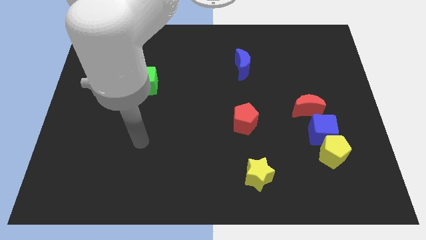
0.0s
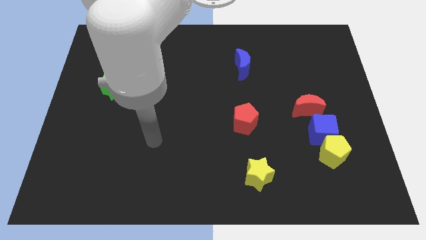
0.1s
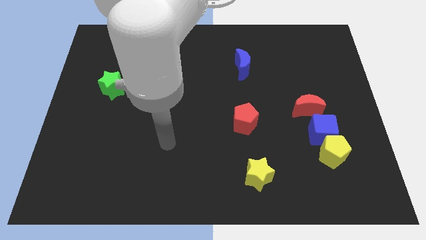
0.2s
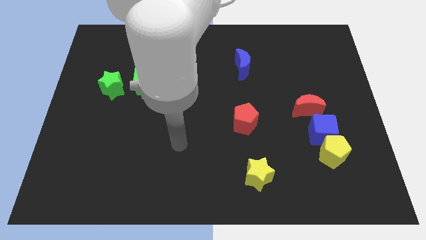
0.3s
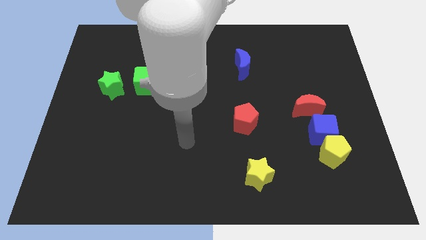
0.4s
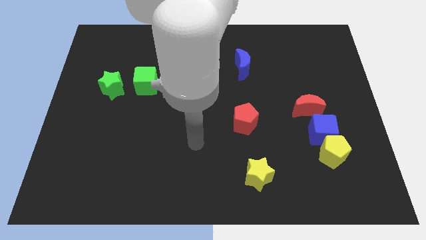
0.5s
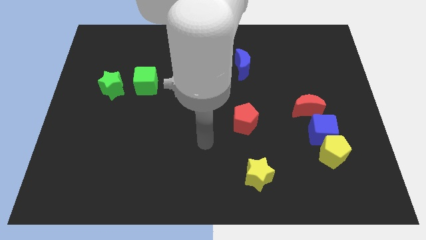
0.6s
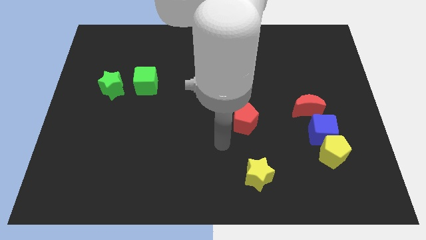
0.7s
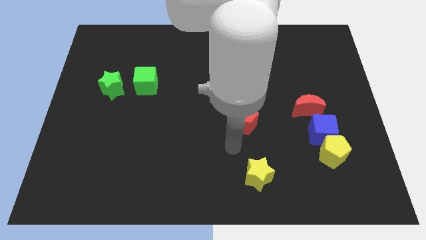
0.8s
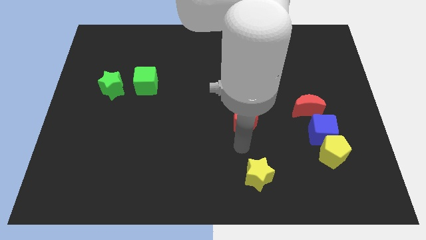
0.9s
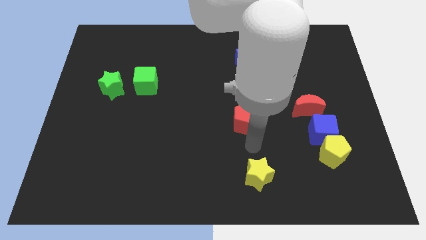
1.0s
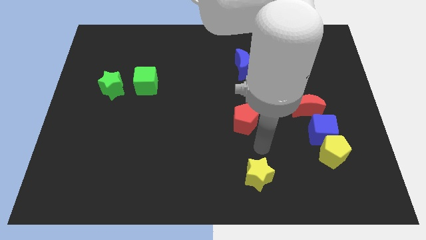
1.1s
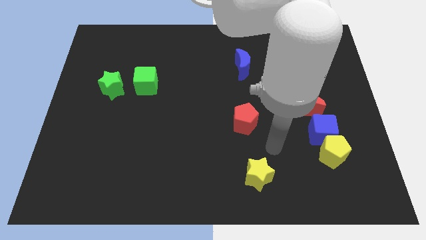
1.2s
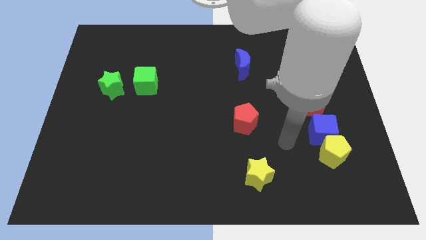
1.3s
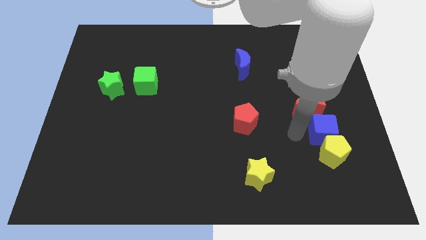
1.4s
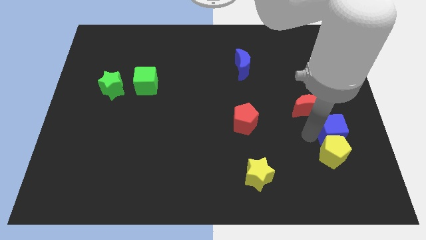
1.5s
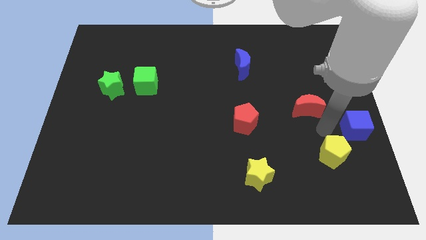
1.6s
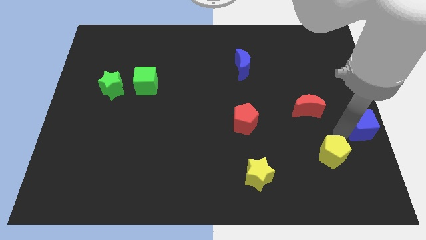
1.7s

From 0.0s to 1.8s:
pull the yellow pentagon apart from the blue cube

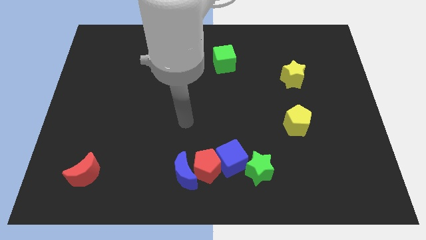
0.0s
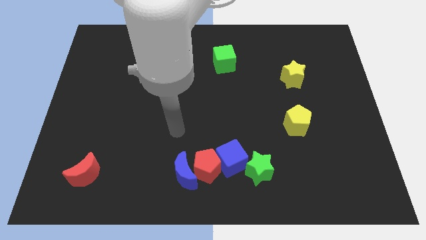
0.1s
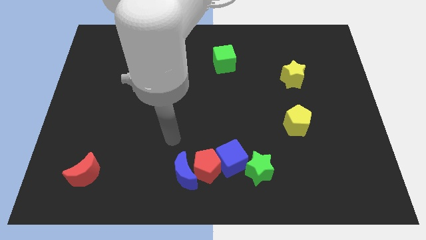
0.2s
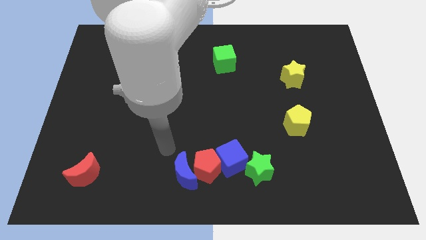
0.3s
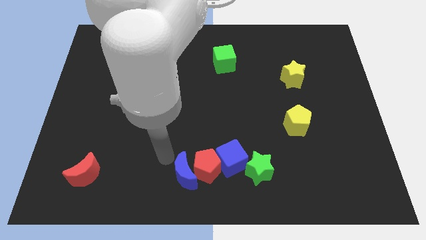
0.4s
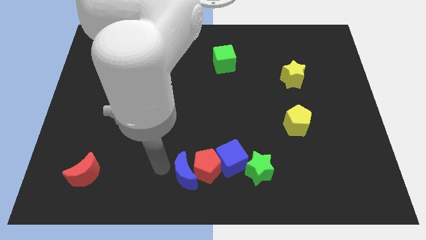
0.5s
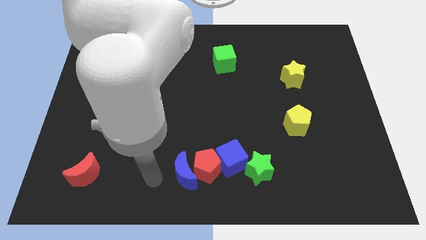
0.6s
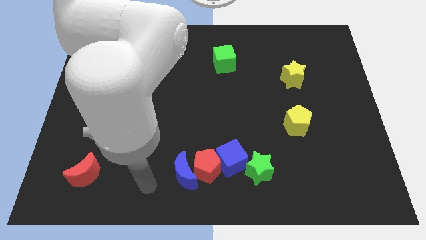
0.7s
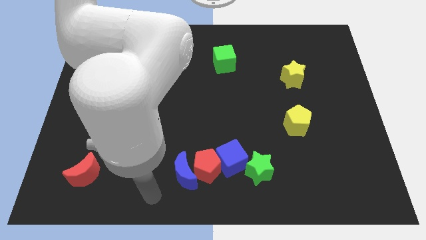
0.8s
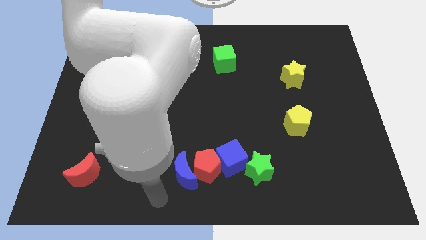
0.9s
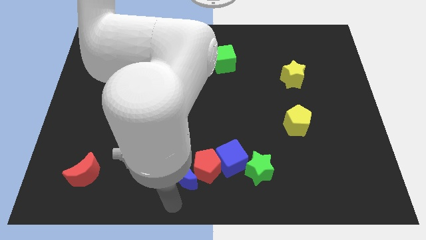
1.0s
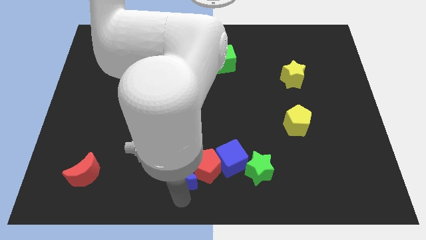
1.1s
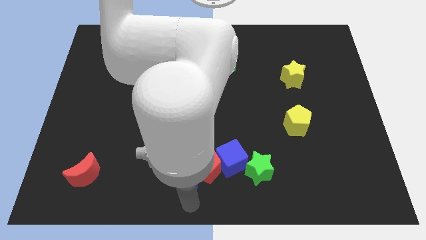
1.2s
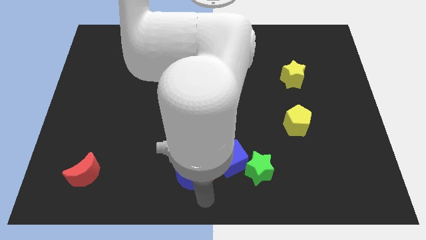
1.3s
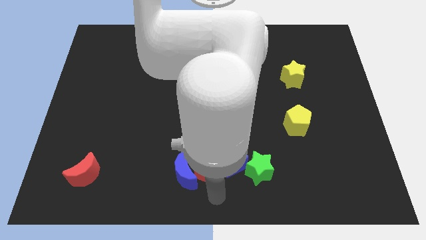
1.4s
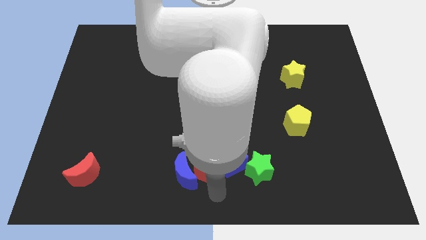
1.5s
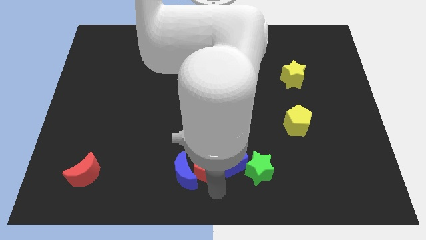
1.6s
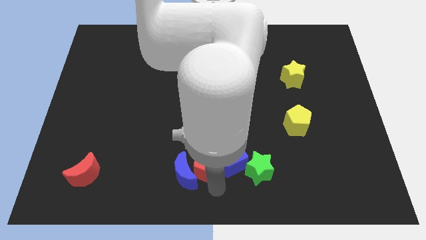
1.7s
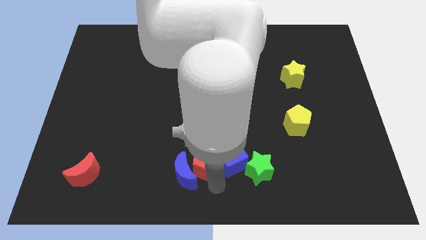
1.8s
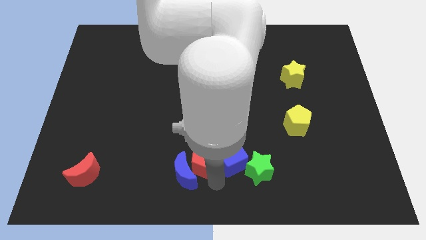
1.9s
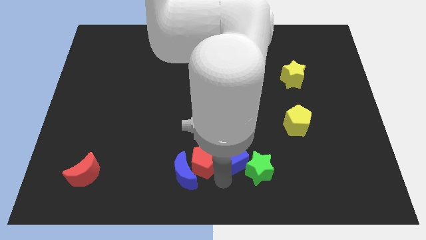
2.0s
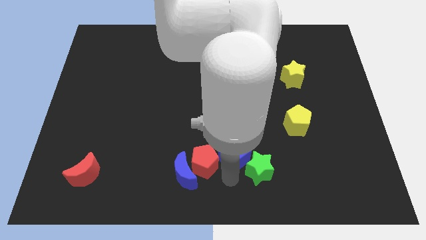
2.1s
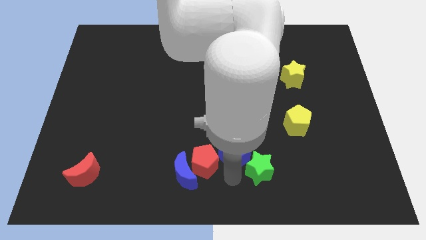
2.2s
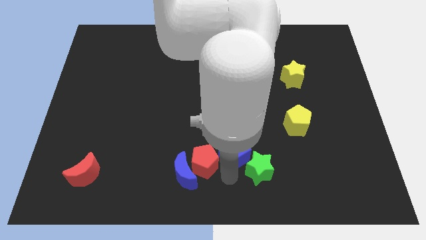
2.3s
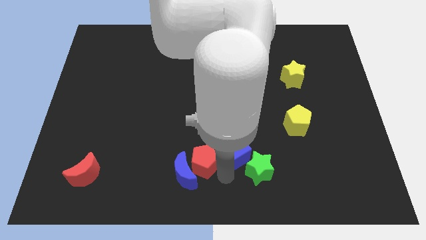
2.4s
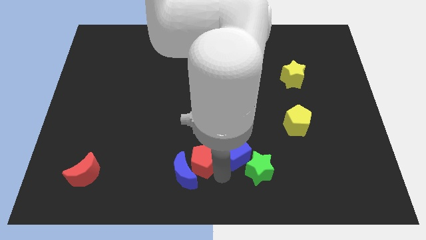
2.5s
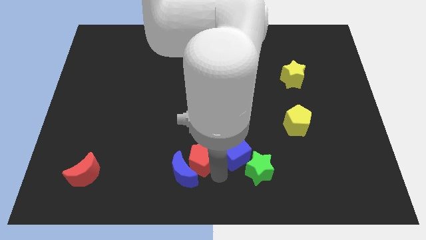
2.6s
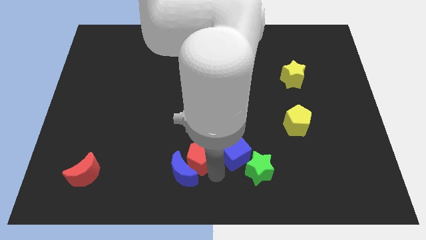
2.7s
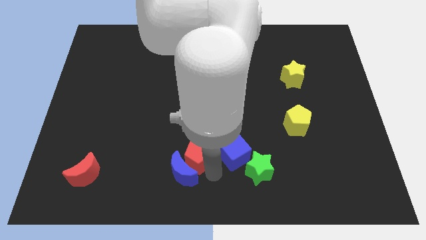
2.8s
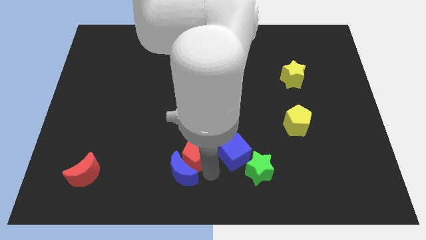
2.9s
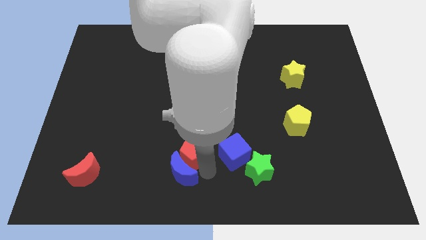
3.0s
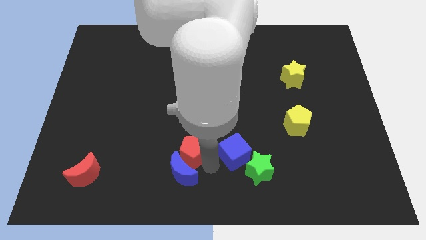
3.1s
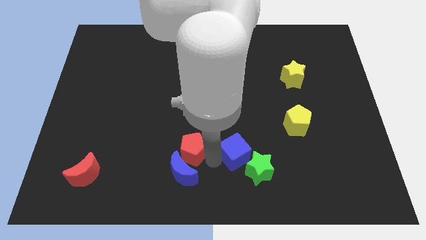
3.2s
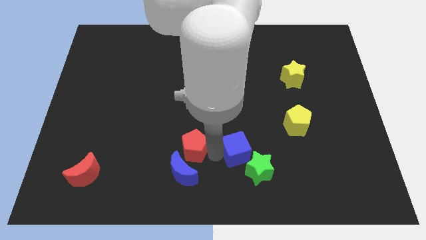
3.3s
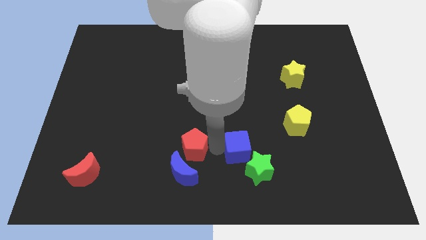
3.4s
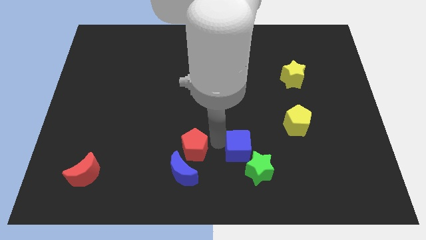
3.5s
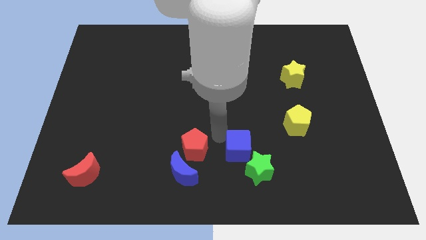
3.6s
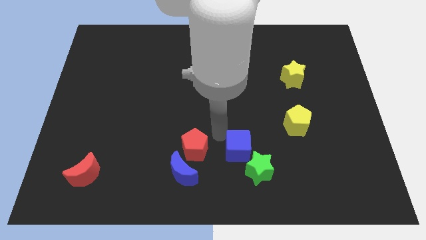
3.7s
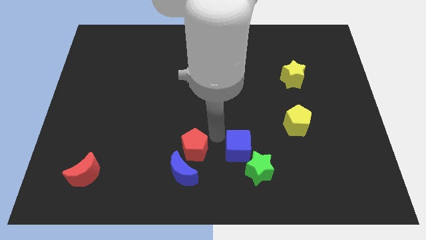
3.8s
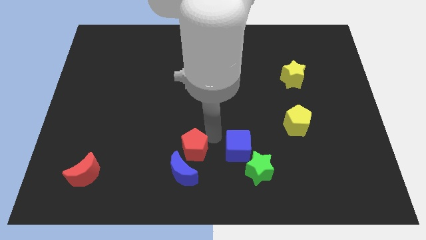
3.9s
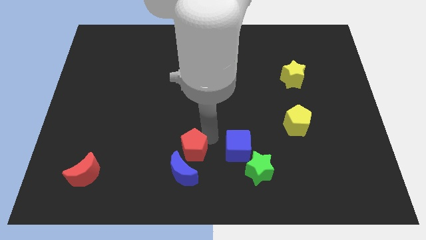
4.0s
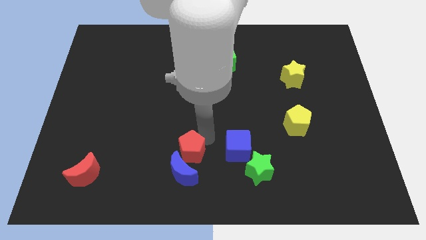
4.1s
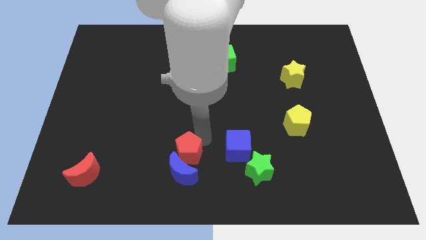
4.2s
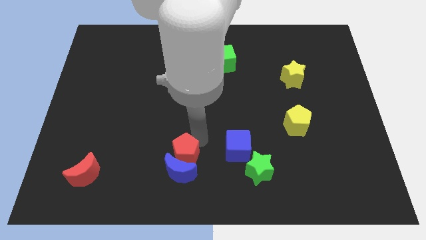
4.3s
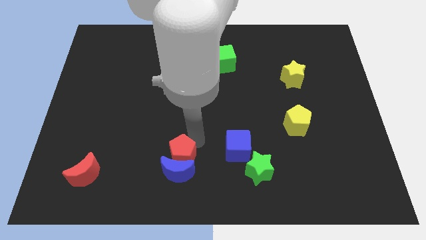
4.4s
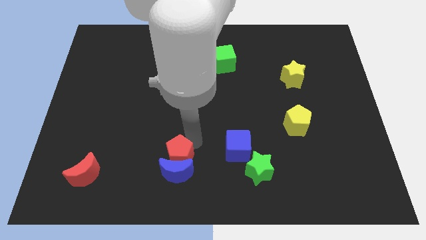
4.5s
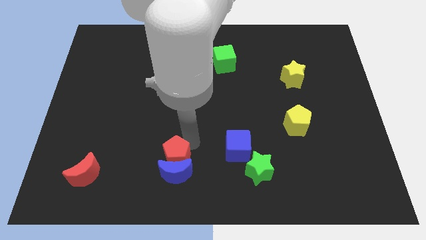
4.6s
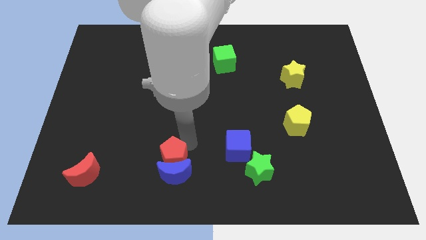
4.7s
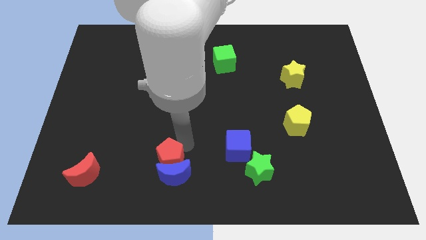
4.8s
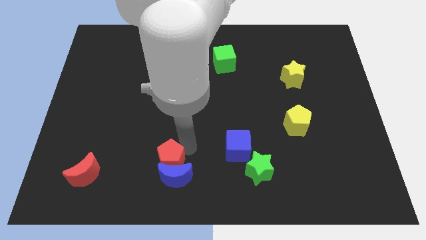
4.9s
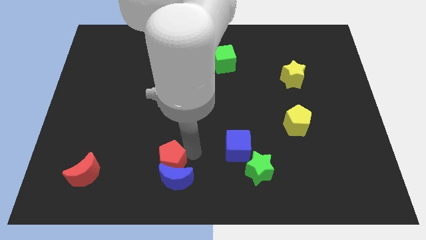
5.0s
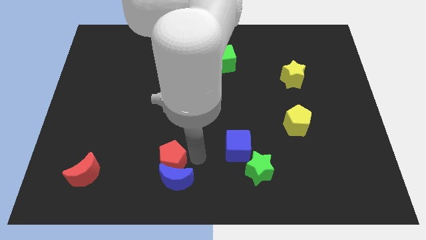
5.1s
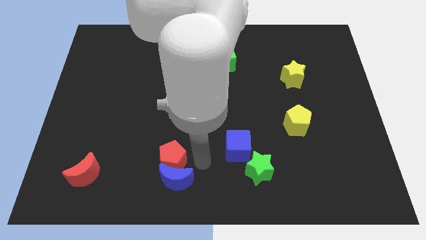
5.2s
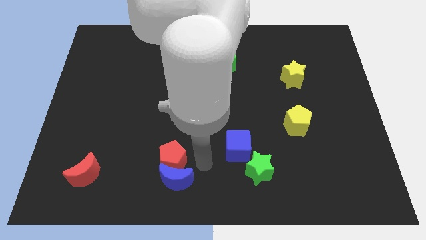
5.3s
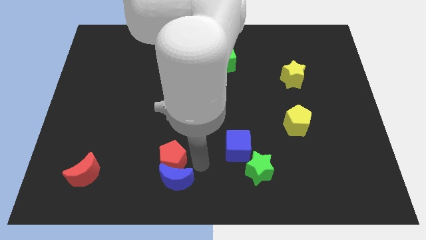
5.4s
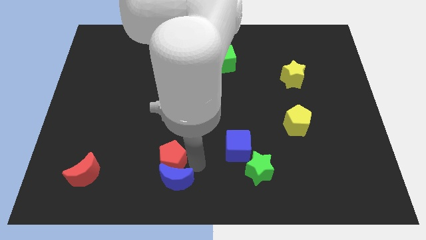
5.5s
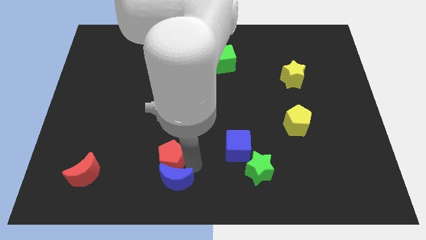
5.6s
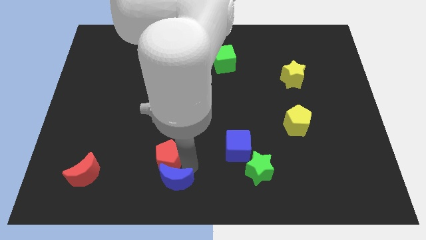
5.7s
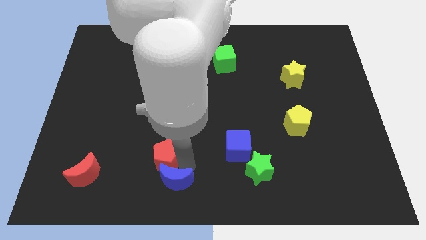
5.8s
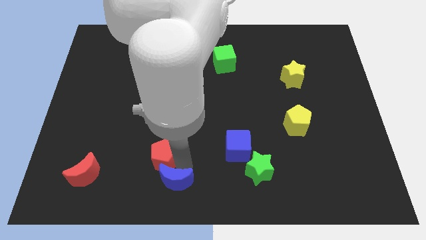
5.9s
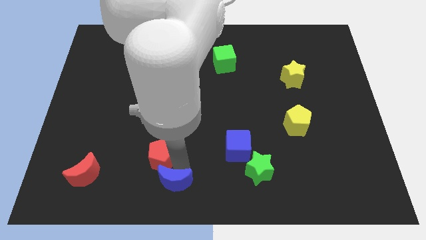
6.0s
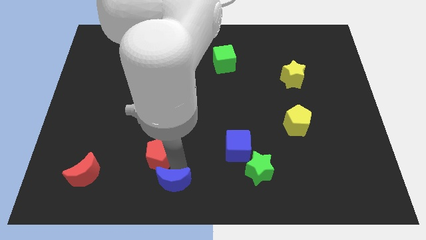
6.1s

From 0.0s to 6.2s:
pull the red pentagon apart from the blue moon and blue cube

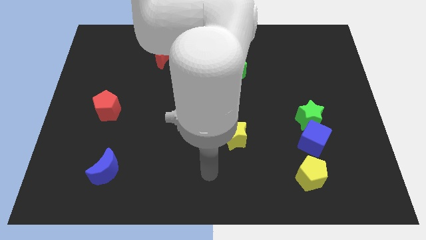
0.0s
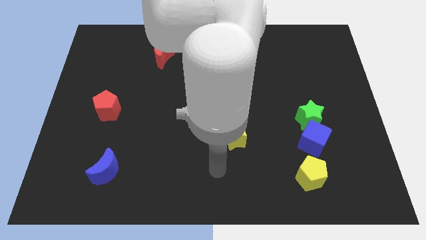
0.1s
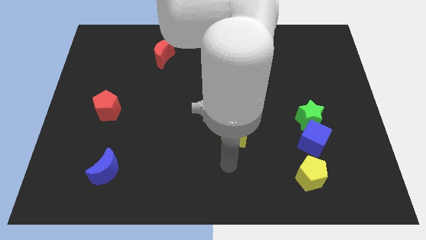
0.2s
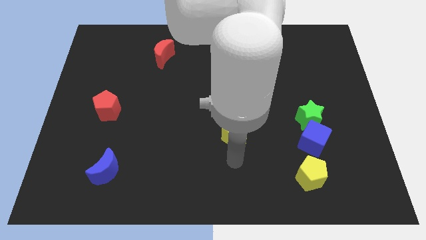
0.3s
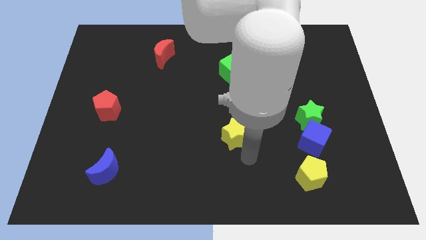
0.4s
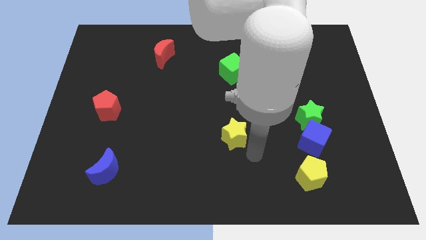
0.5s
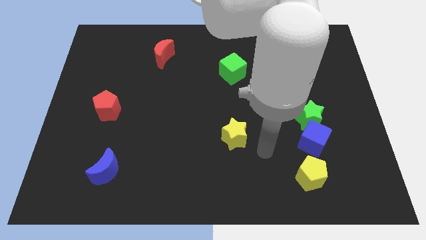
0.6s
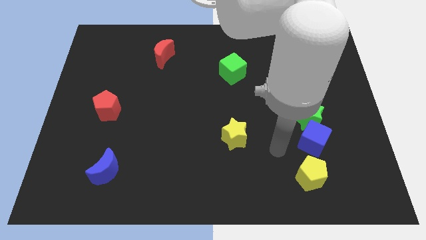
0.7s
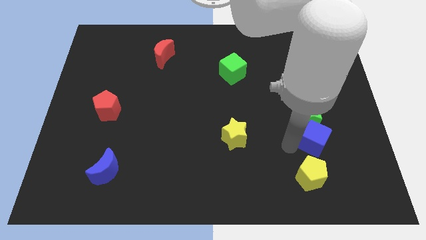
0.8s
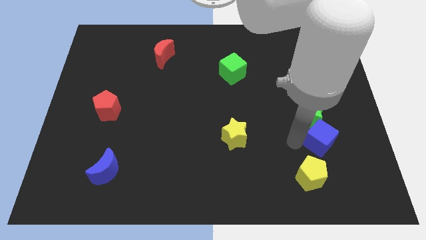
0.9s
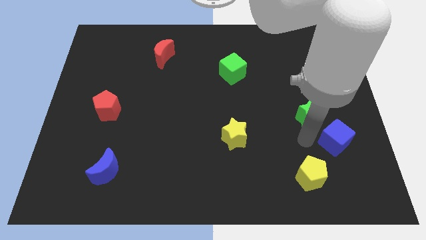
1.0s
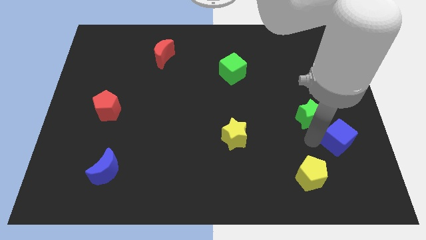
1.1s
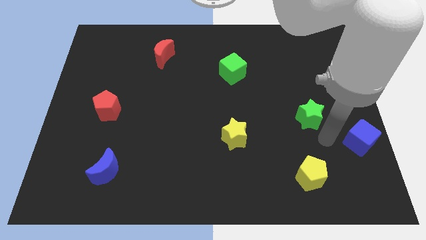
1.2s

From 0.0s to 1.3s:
move the green star away from the blue cube

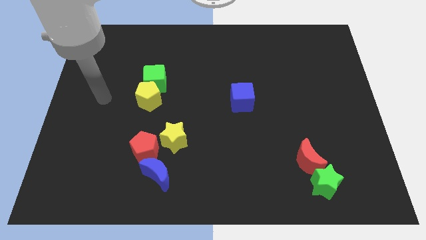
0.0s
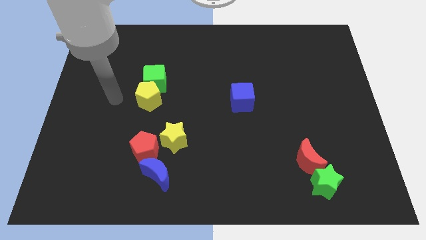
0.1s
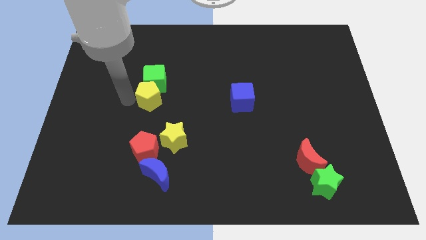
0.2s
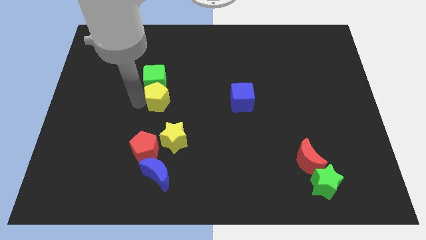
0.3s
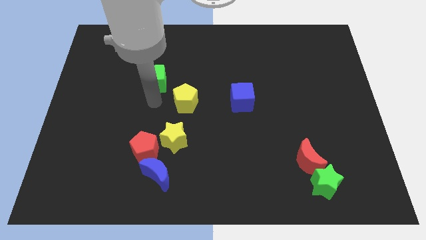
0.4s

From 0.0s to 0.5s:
separate the green cube from the yellow pentagon
